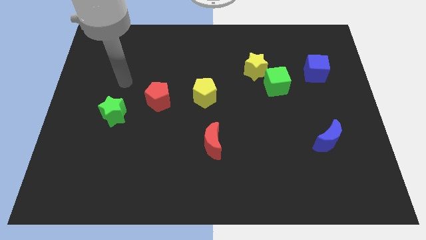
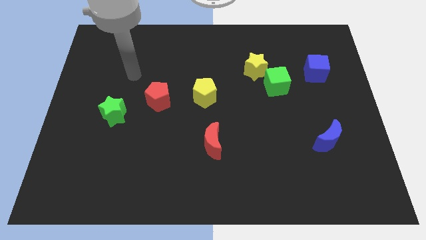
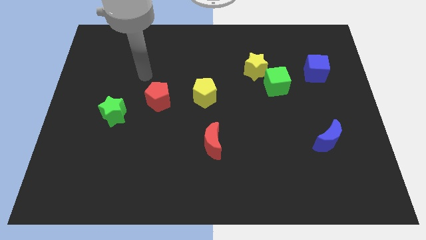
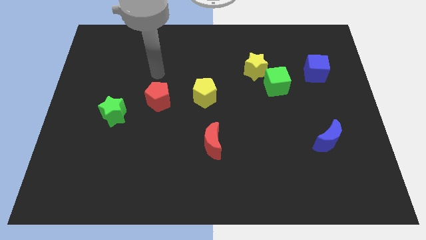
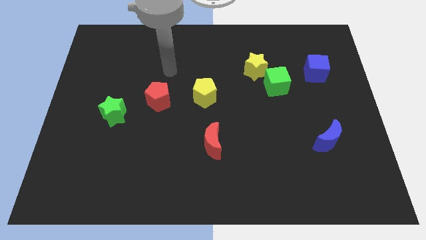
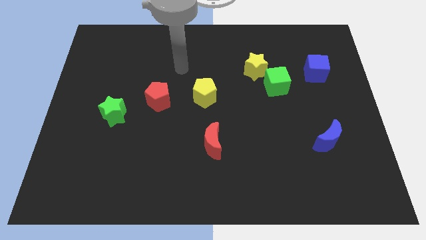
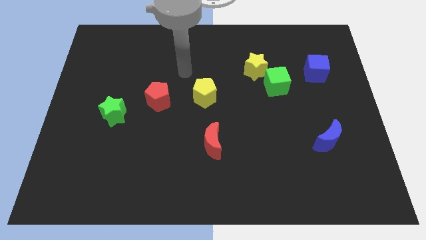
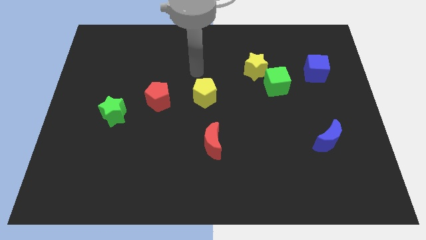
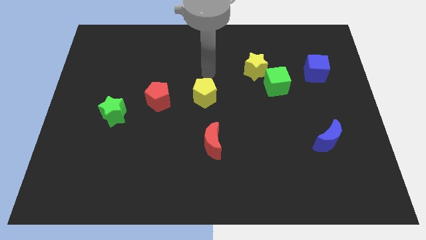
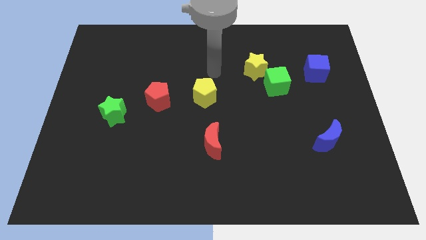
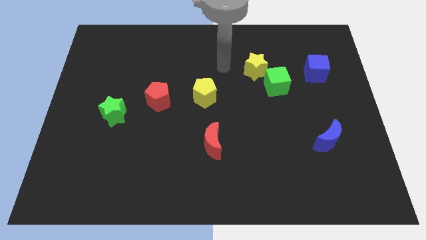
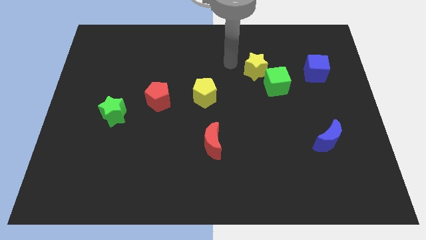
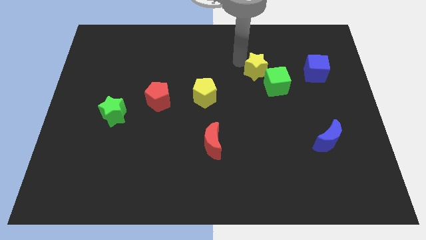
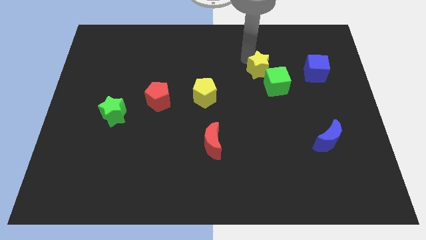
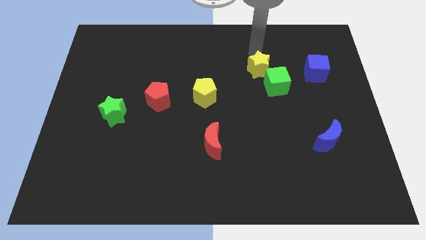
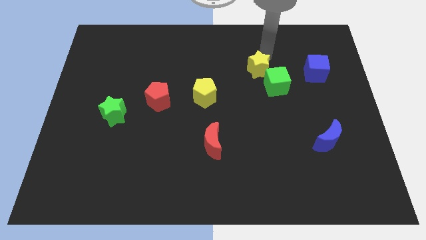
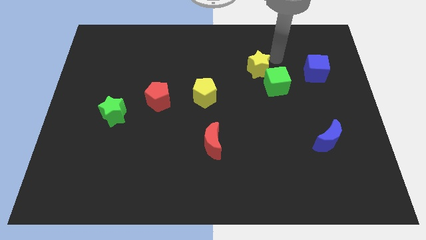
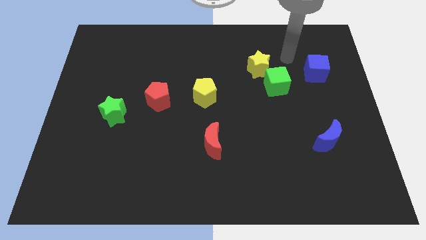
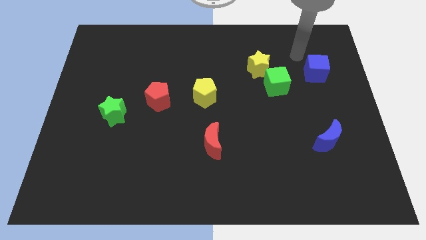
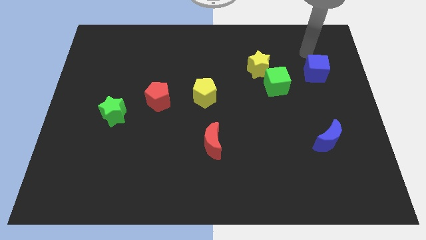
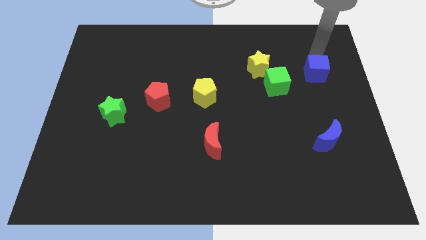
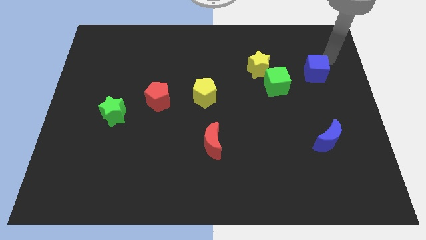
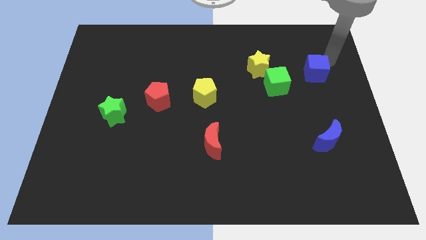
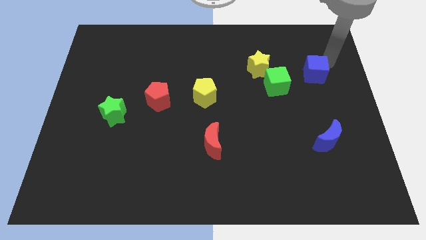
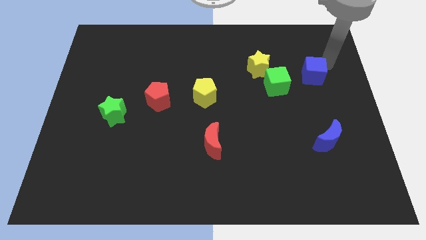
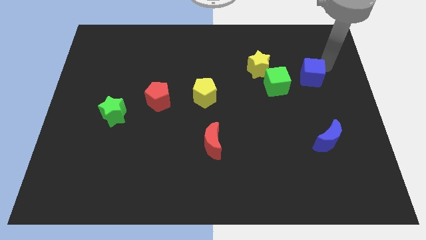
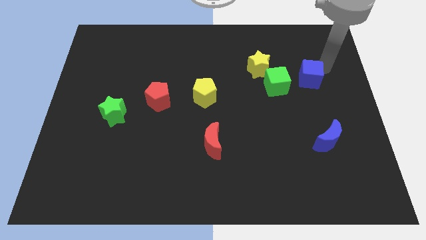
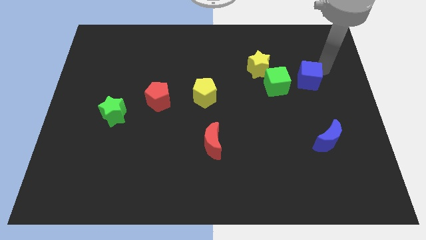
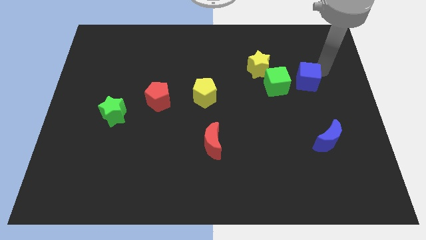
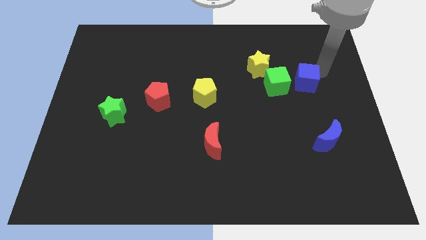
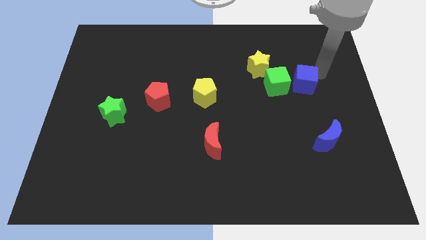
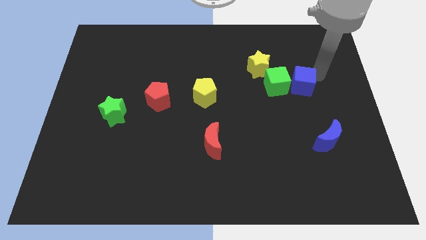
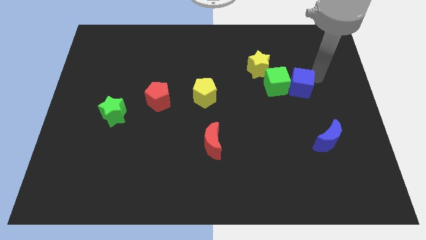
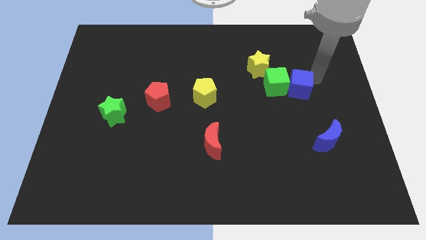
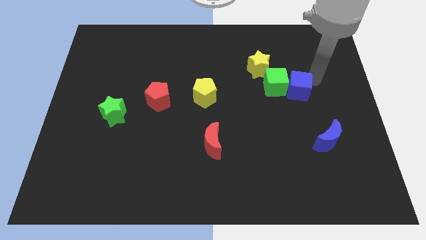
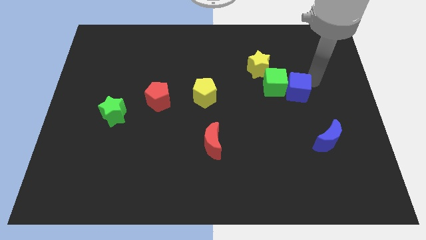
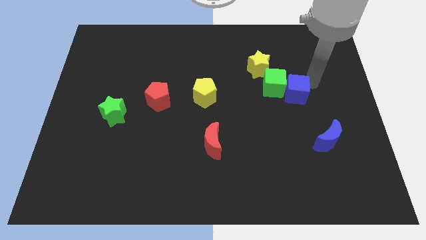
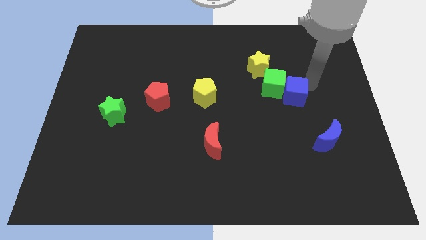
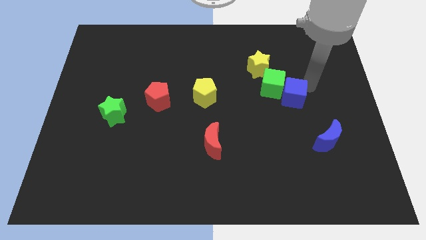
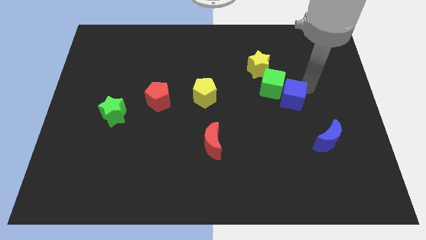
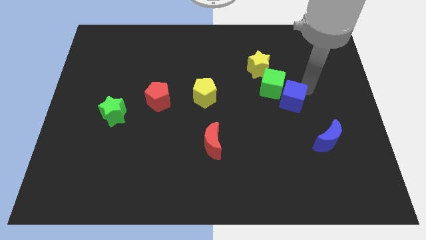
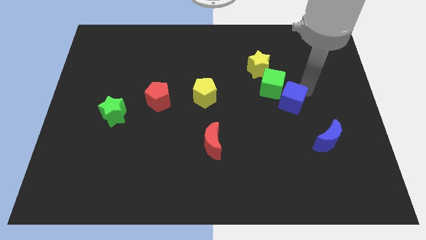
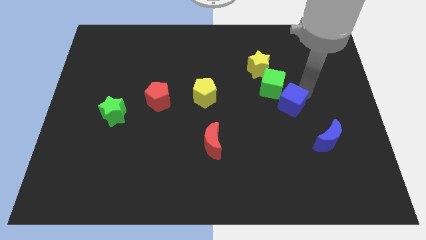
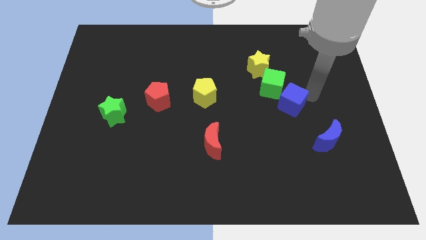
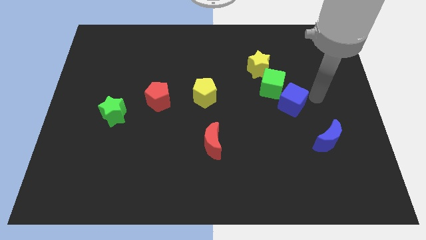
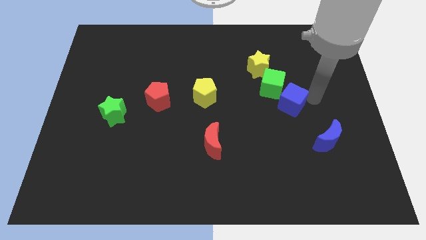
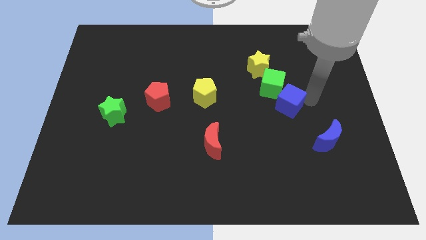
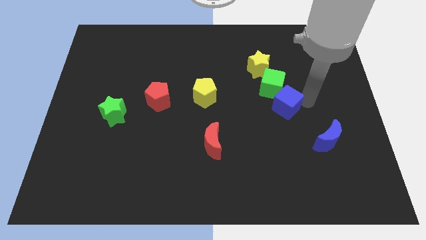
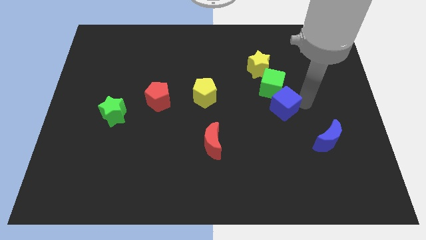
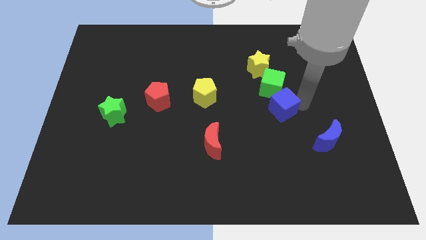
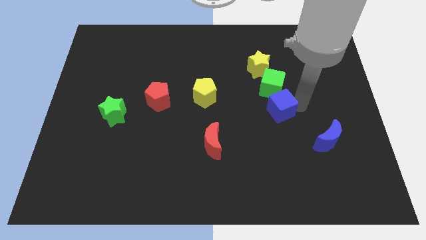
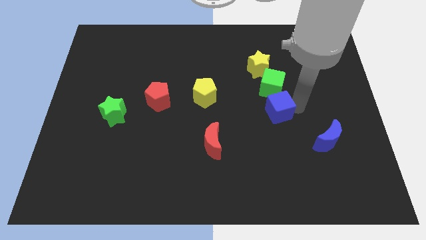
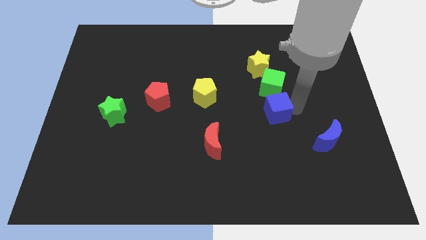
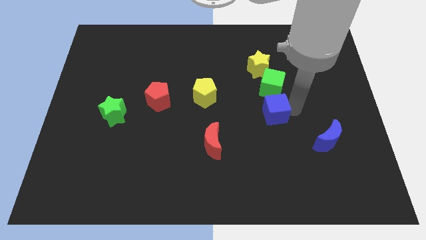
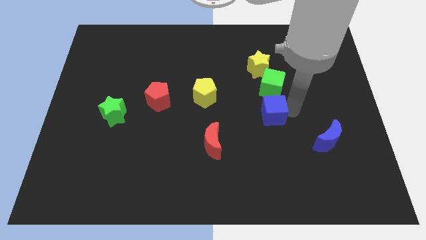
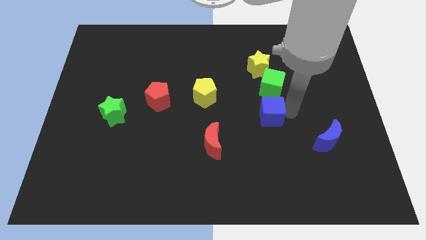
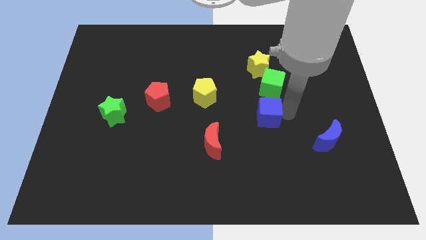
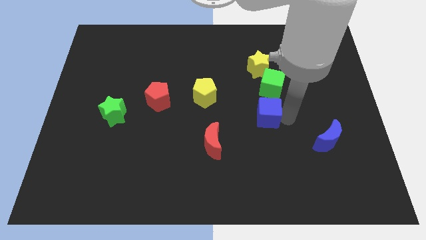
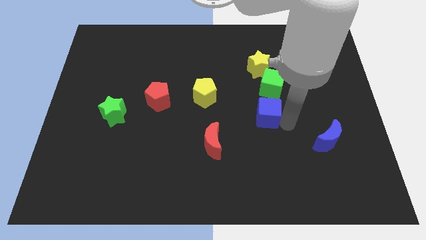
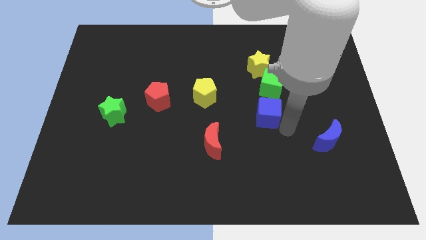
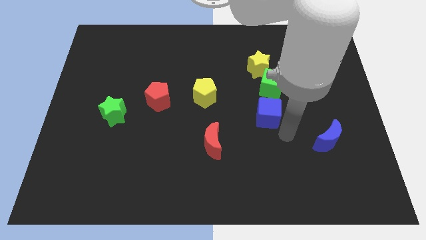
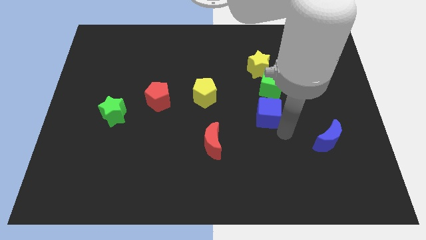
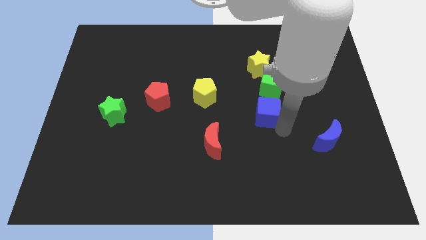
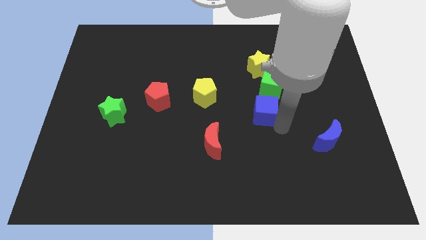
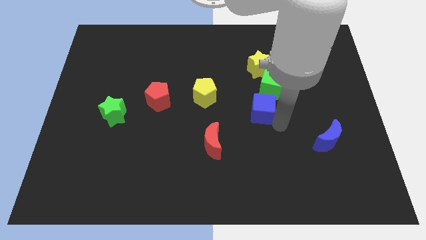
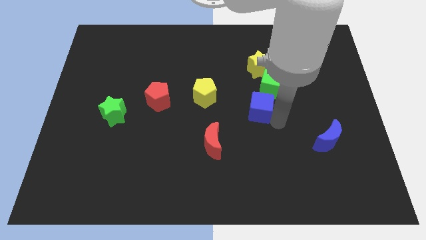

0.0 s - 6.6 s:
slide the blue cube to the right side of the yellow pentagon

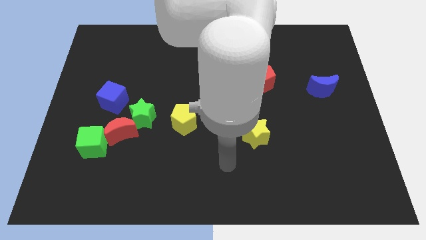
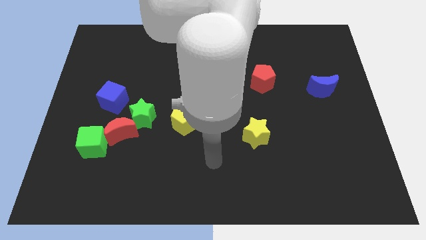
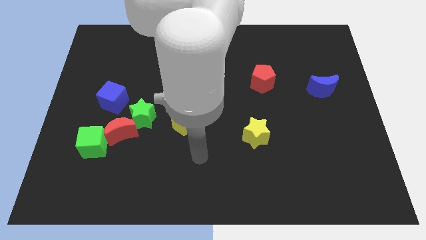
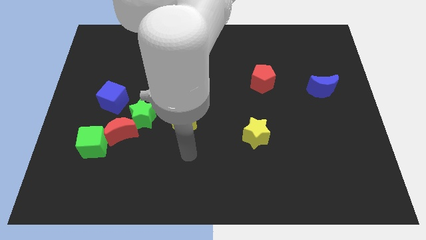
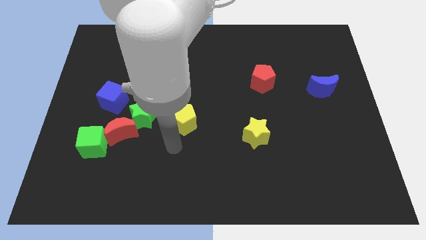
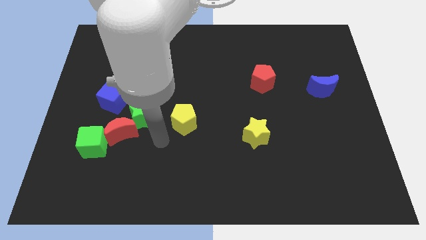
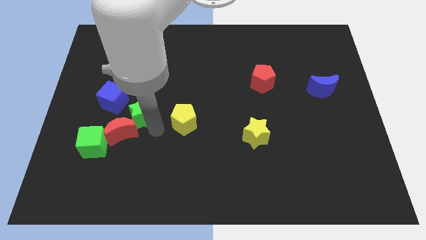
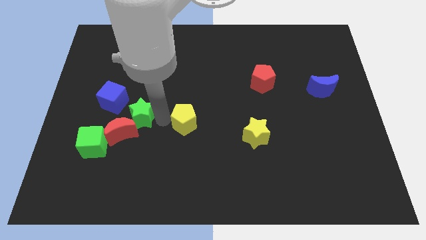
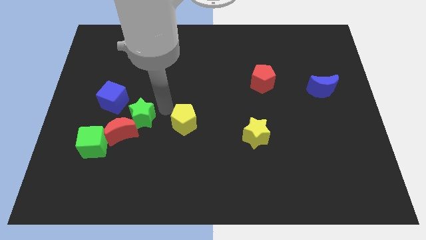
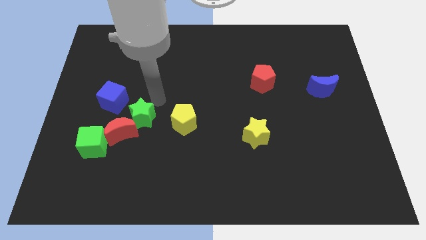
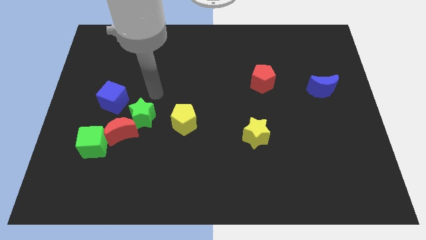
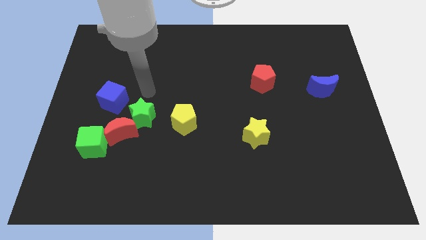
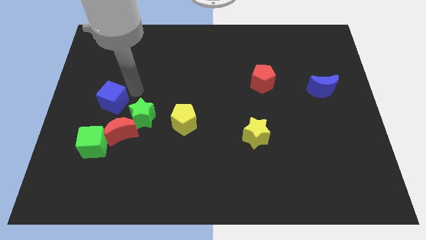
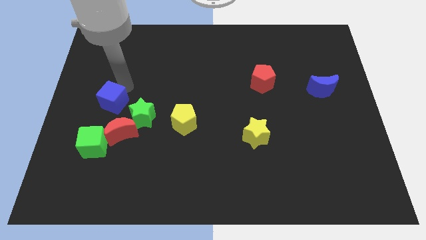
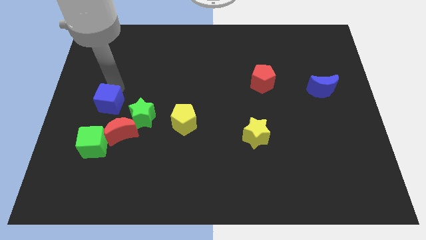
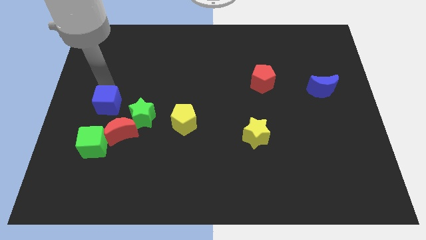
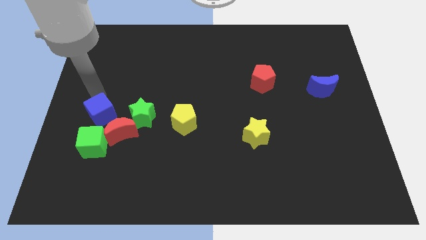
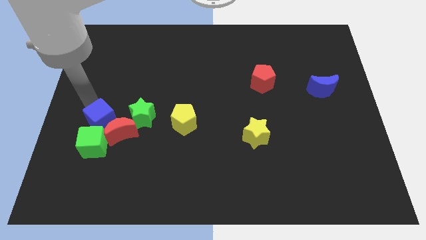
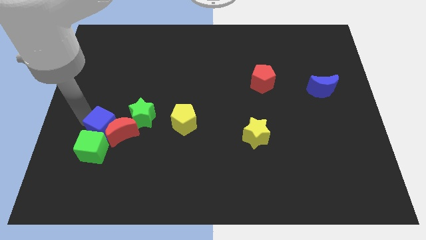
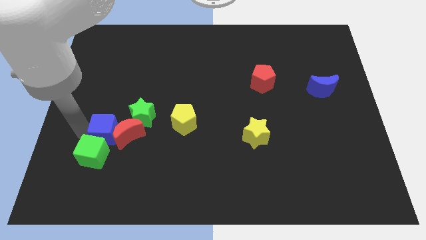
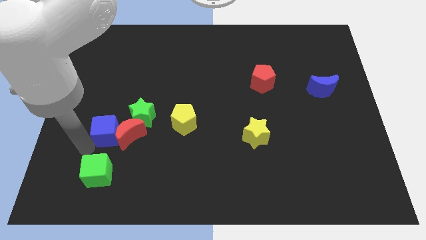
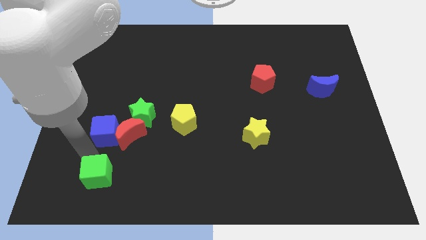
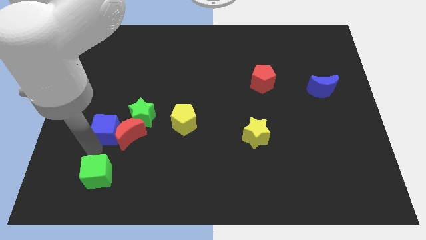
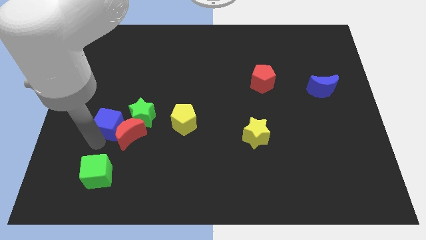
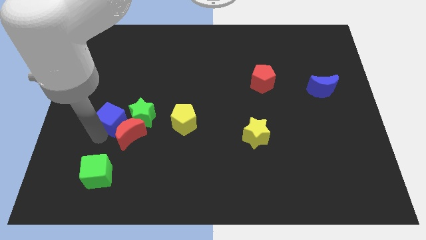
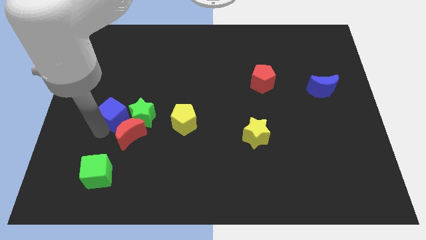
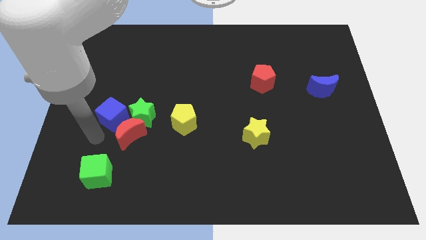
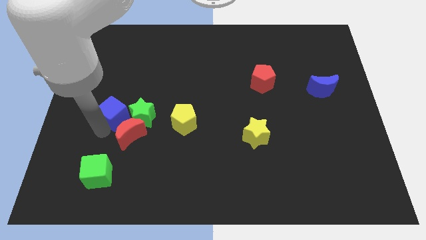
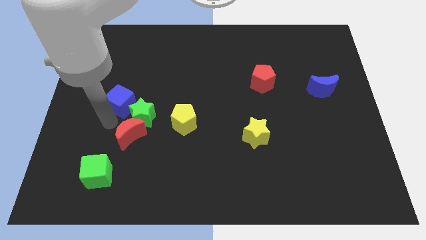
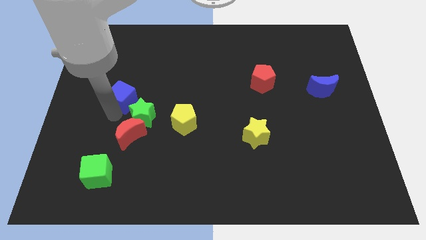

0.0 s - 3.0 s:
move the blue cube to the top side of the green star
